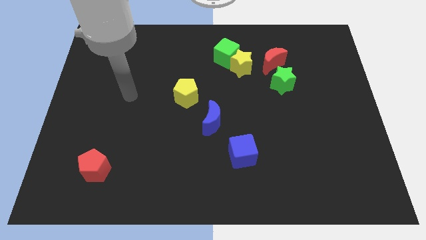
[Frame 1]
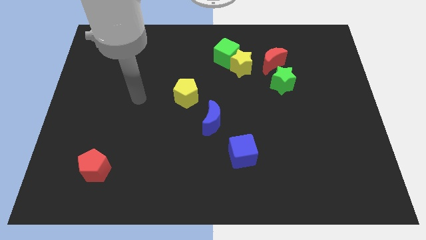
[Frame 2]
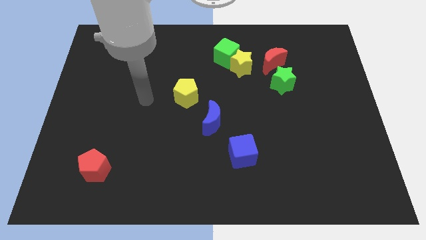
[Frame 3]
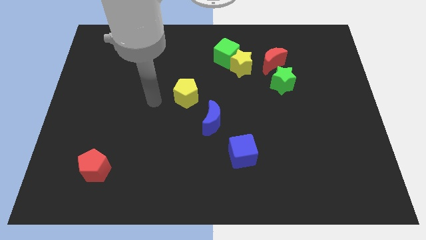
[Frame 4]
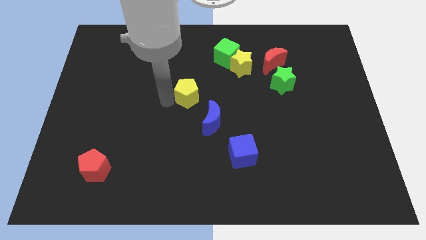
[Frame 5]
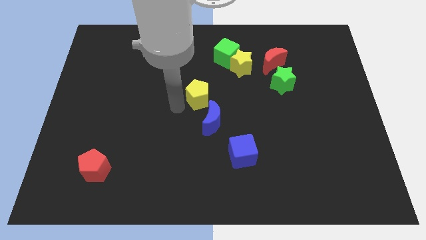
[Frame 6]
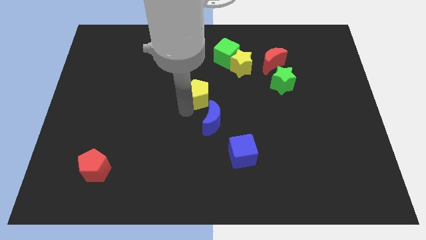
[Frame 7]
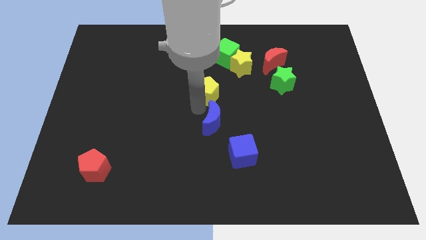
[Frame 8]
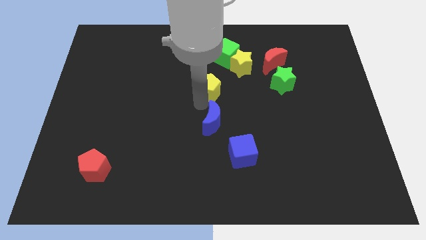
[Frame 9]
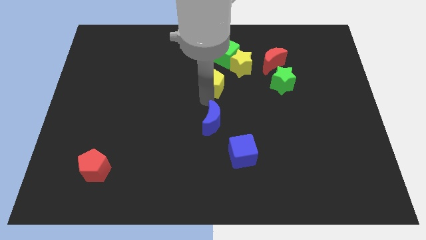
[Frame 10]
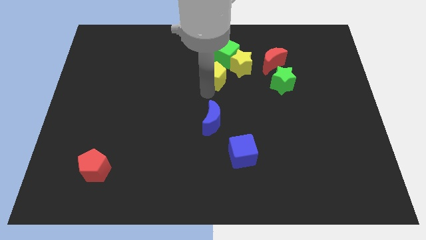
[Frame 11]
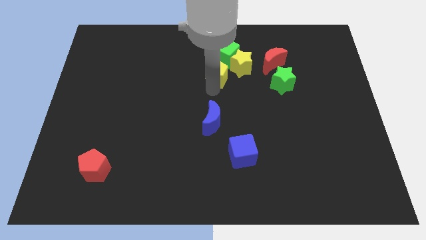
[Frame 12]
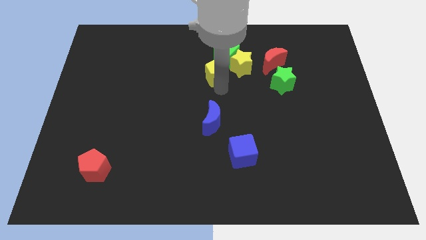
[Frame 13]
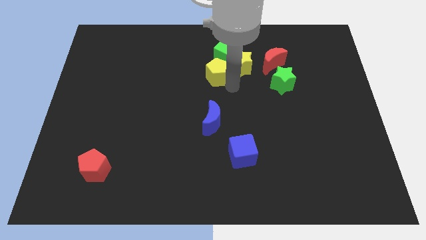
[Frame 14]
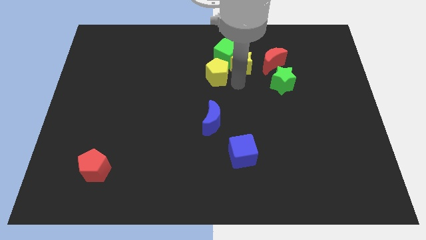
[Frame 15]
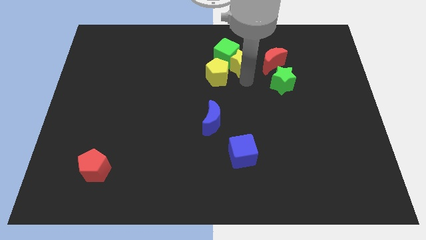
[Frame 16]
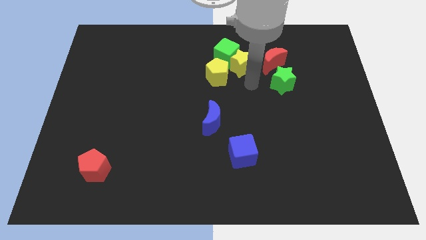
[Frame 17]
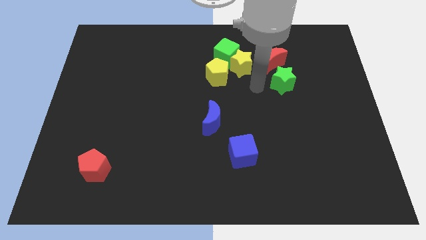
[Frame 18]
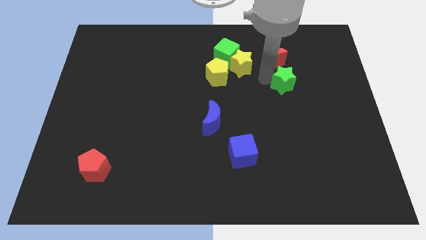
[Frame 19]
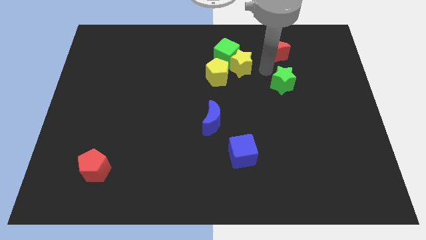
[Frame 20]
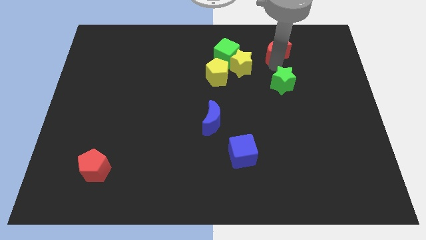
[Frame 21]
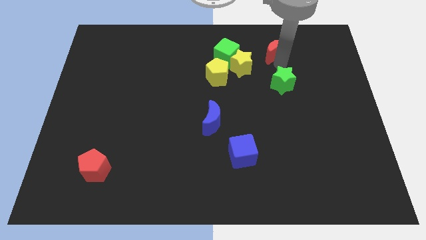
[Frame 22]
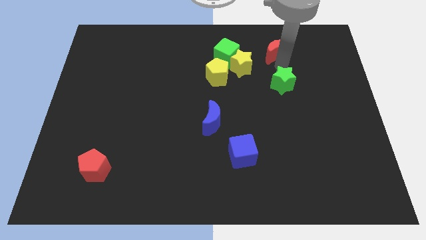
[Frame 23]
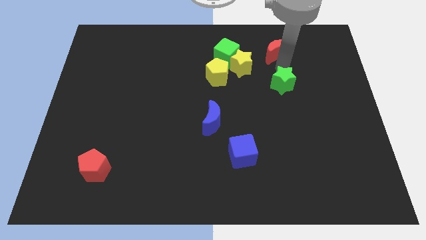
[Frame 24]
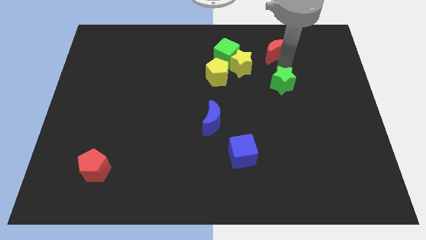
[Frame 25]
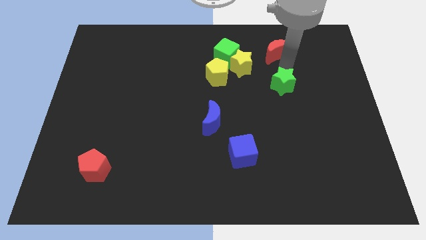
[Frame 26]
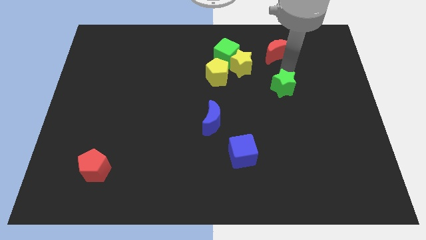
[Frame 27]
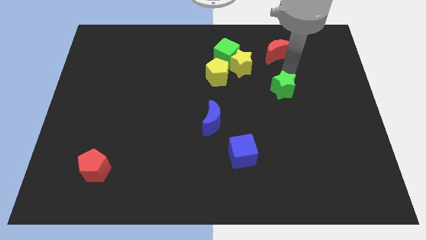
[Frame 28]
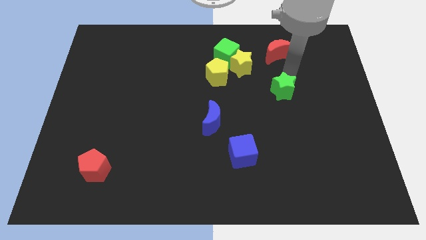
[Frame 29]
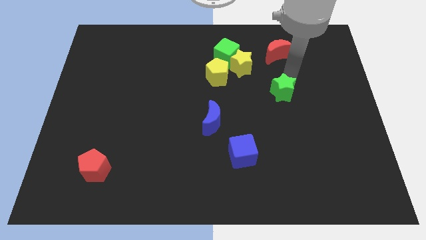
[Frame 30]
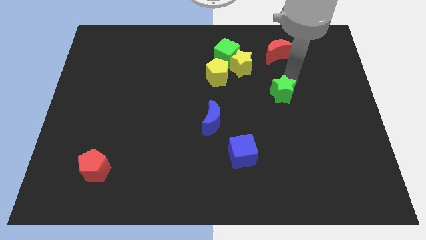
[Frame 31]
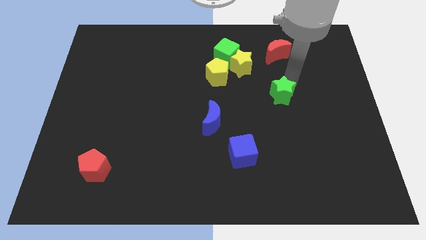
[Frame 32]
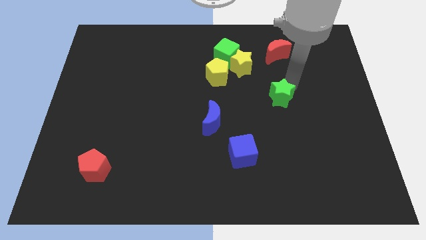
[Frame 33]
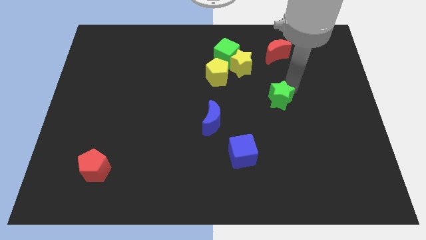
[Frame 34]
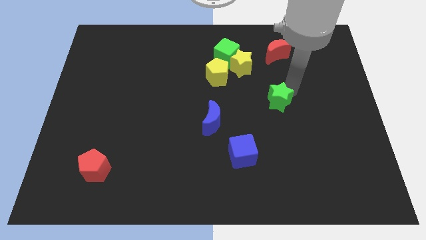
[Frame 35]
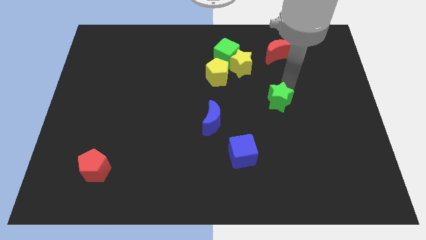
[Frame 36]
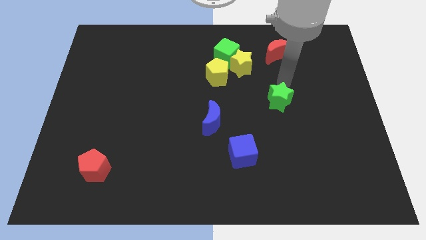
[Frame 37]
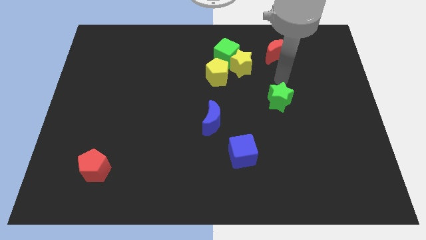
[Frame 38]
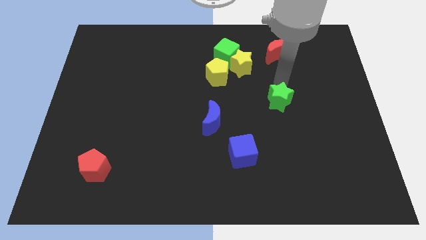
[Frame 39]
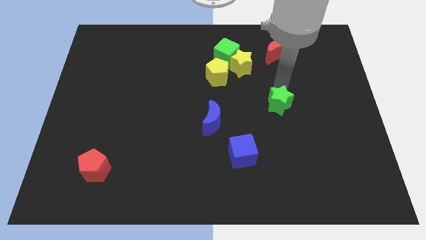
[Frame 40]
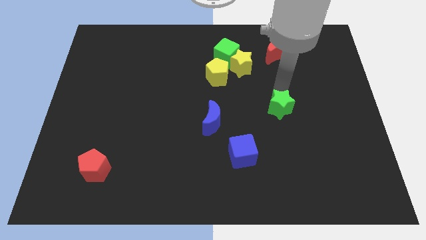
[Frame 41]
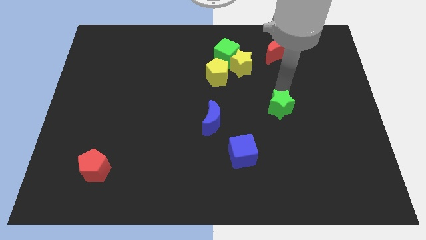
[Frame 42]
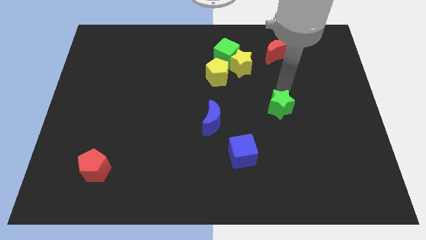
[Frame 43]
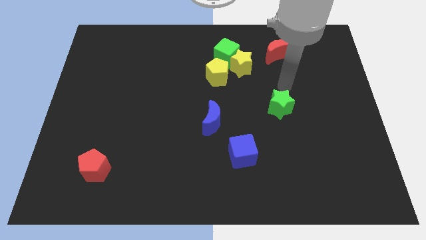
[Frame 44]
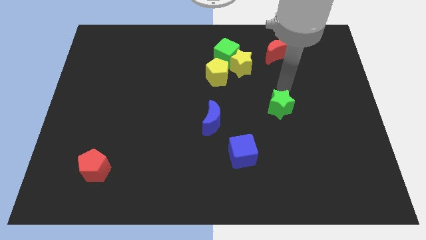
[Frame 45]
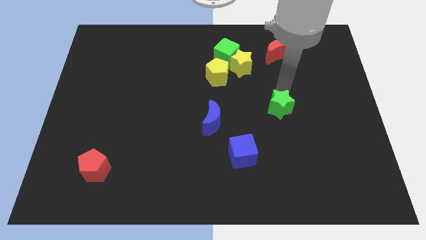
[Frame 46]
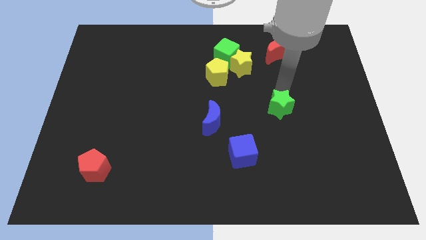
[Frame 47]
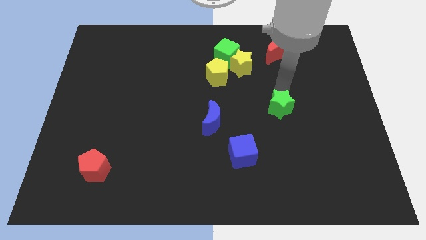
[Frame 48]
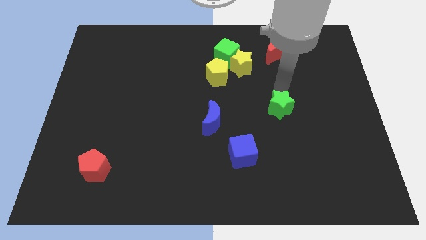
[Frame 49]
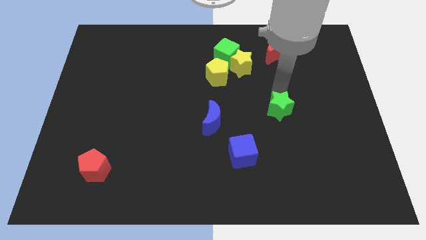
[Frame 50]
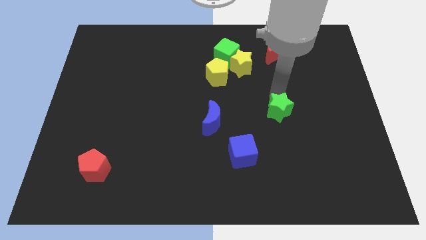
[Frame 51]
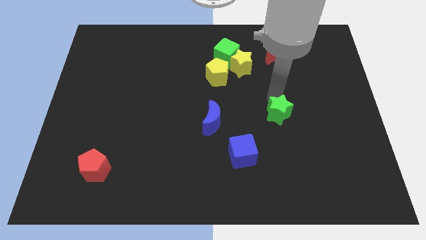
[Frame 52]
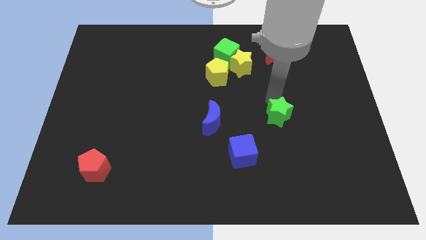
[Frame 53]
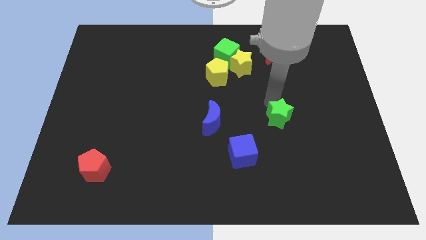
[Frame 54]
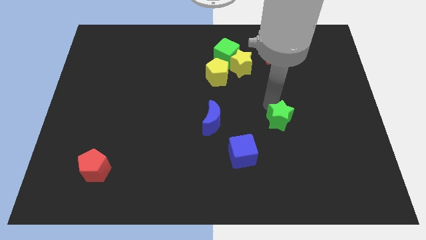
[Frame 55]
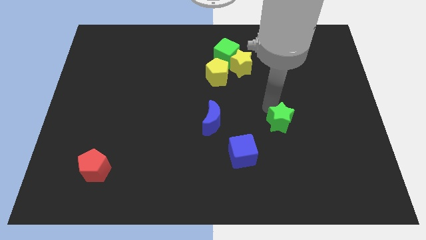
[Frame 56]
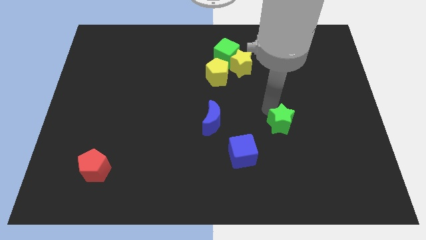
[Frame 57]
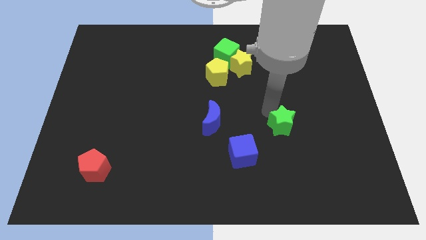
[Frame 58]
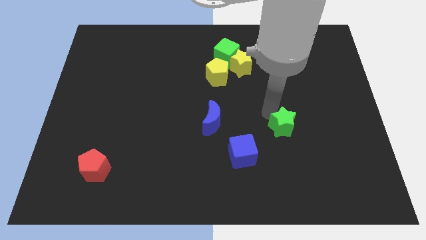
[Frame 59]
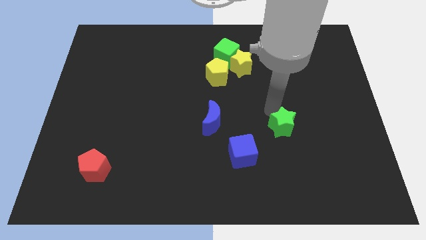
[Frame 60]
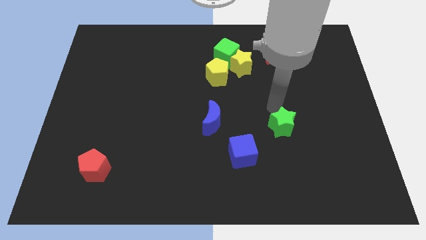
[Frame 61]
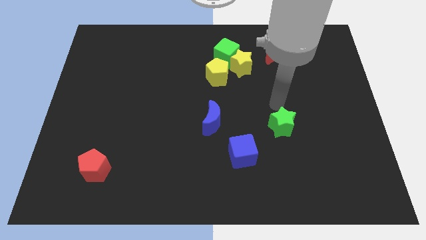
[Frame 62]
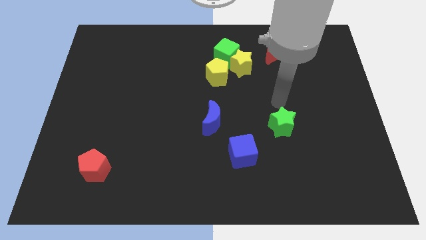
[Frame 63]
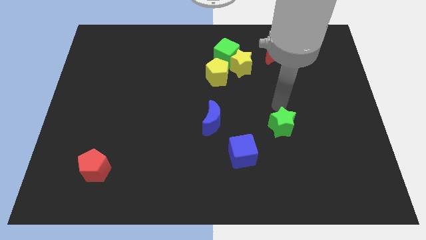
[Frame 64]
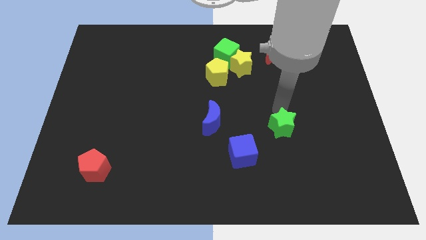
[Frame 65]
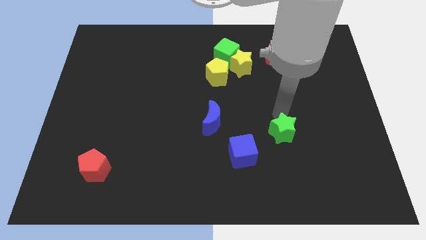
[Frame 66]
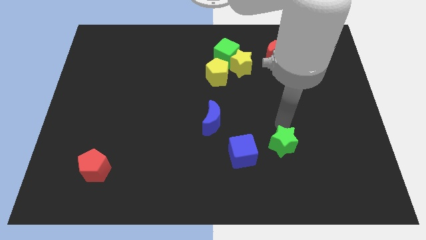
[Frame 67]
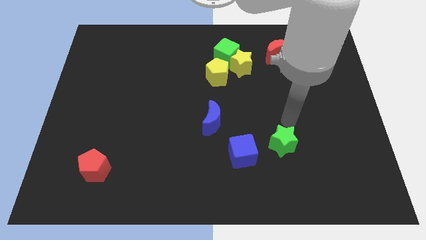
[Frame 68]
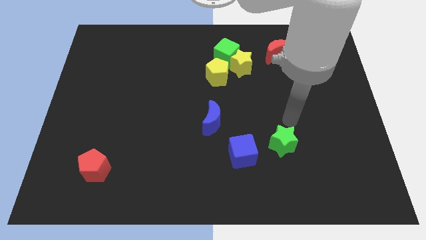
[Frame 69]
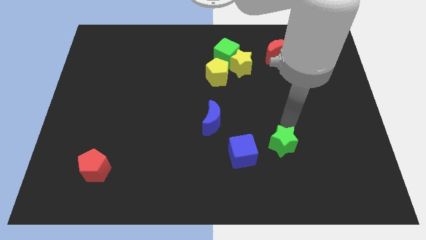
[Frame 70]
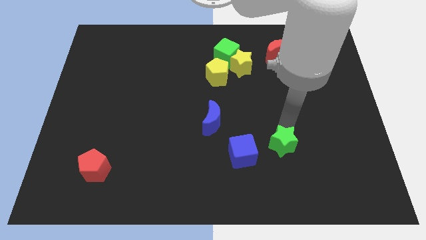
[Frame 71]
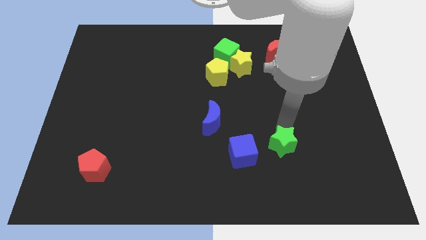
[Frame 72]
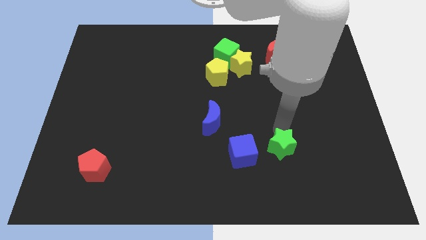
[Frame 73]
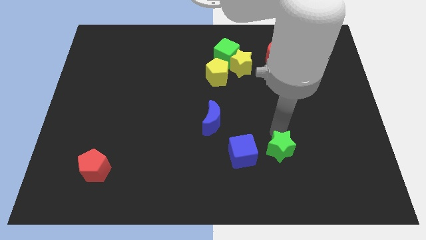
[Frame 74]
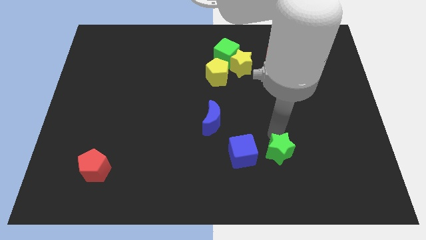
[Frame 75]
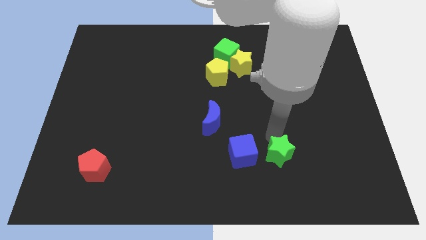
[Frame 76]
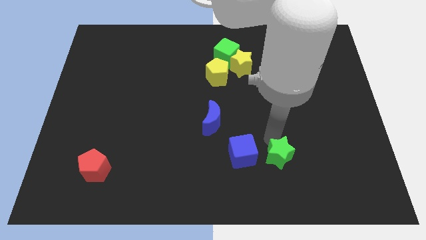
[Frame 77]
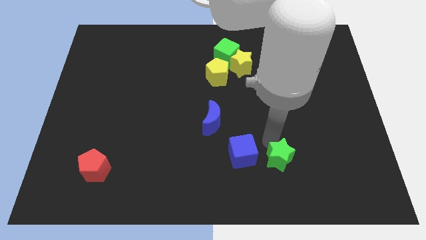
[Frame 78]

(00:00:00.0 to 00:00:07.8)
move the green star to the bottom right side of the blue cube
